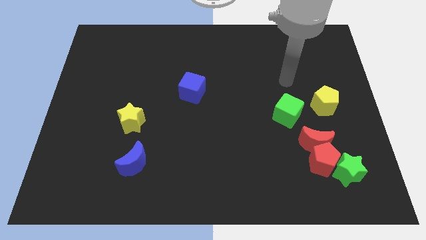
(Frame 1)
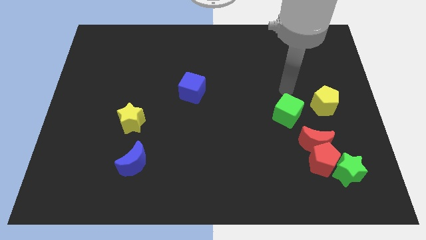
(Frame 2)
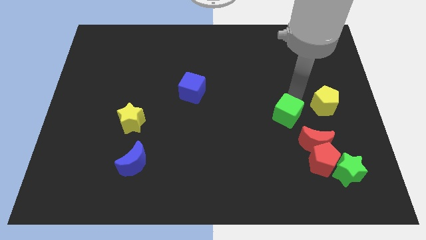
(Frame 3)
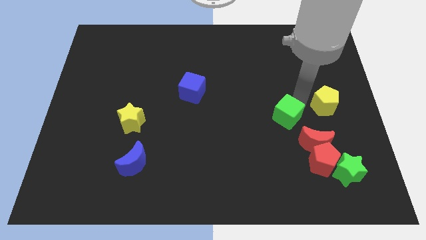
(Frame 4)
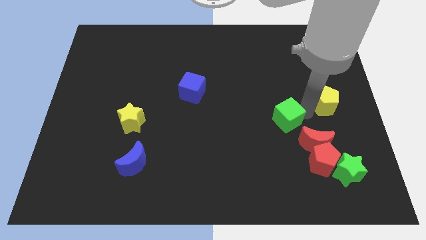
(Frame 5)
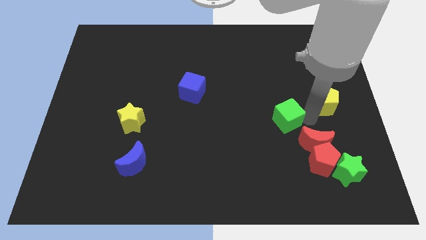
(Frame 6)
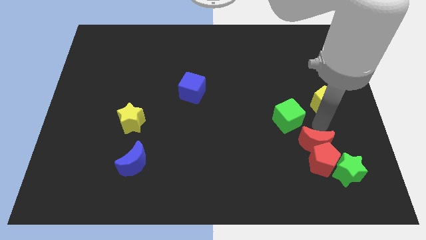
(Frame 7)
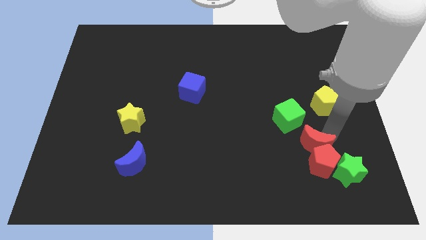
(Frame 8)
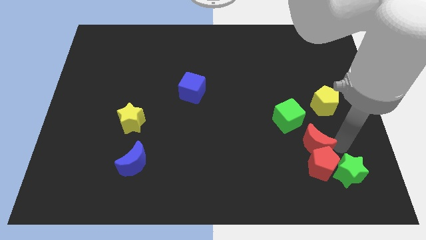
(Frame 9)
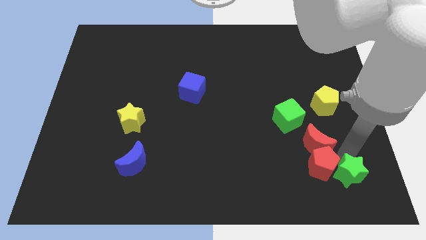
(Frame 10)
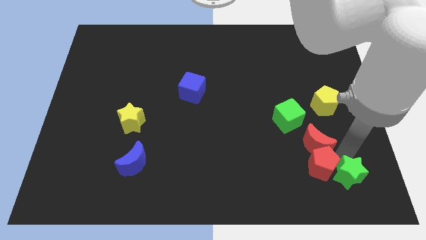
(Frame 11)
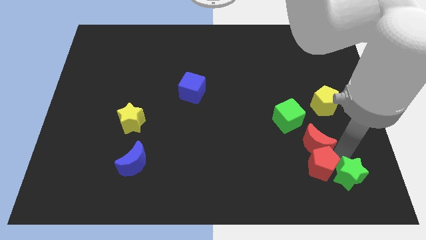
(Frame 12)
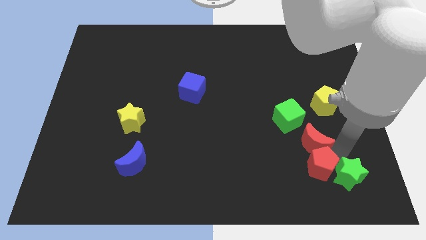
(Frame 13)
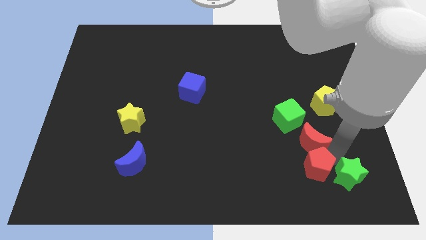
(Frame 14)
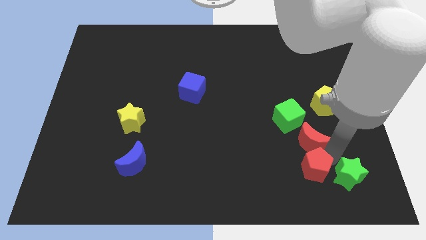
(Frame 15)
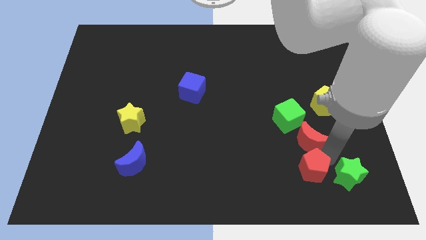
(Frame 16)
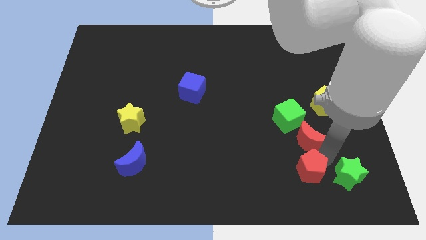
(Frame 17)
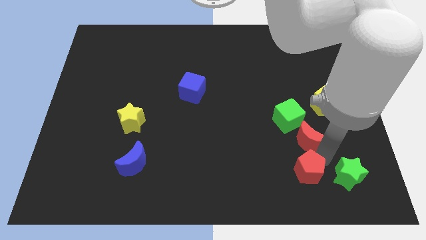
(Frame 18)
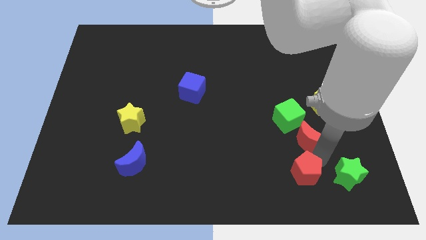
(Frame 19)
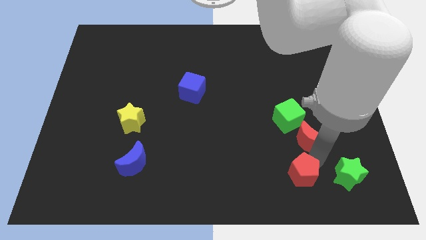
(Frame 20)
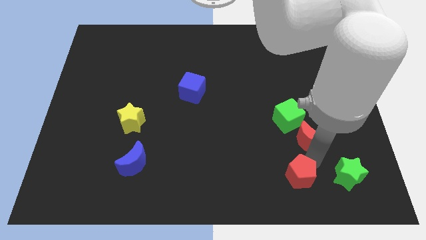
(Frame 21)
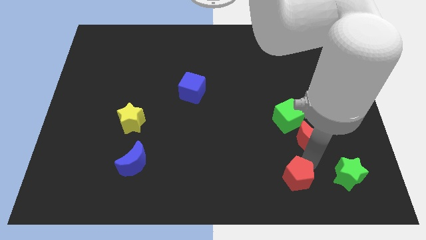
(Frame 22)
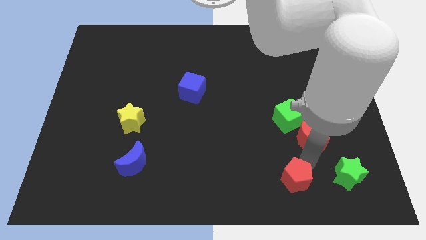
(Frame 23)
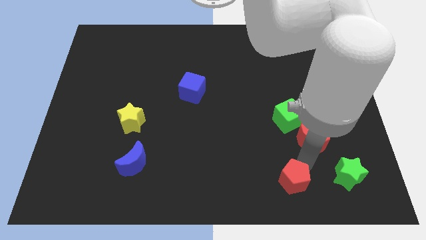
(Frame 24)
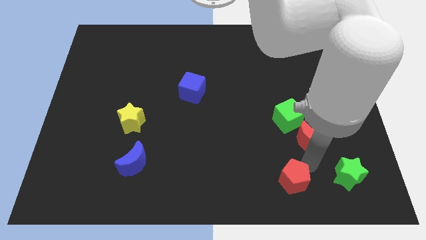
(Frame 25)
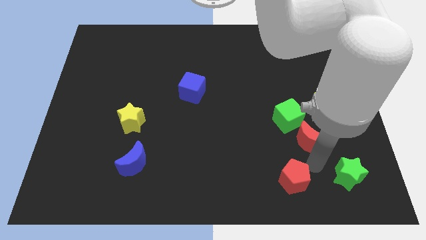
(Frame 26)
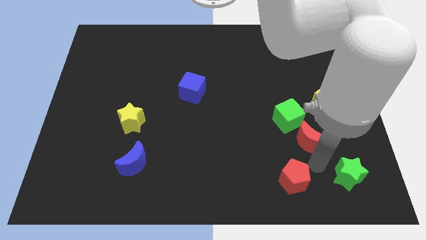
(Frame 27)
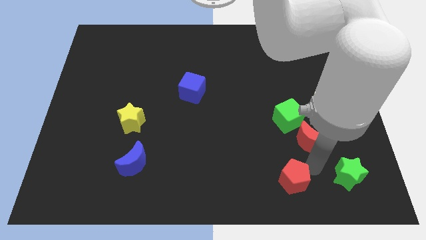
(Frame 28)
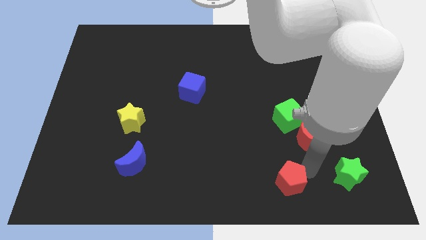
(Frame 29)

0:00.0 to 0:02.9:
move the red pentagon away from the red moon and green star

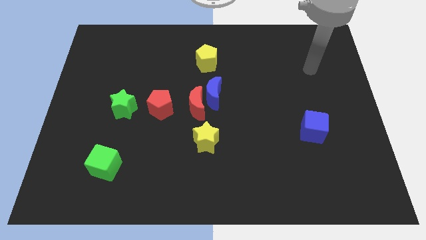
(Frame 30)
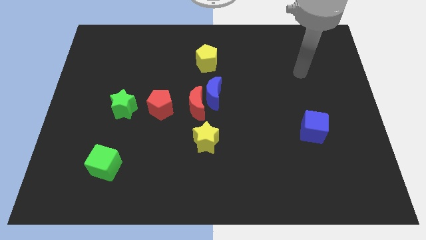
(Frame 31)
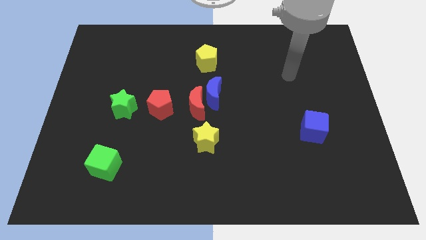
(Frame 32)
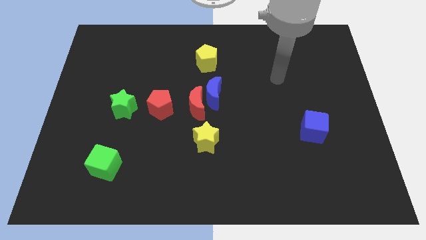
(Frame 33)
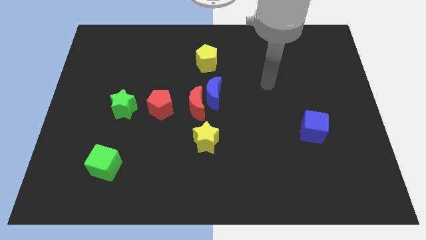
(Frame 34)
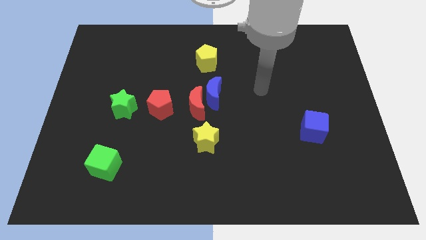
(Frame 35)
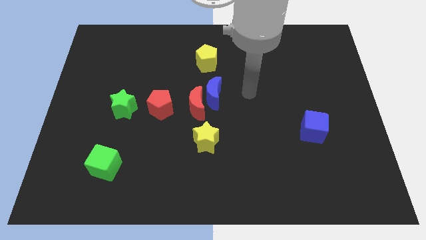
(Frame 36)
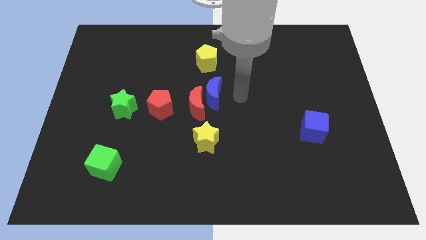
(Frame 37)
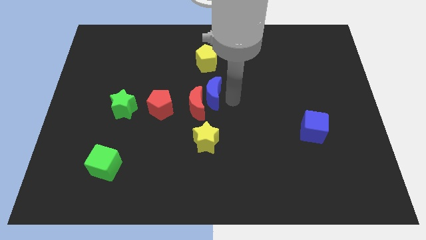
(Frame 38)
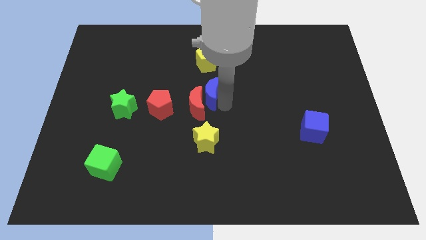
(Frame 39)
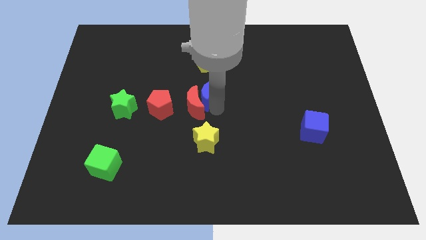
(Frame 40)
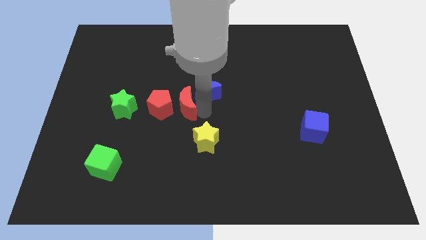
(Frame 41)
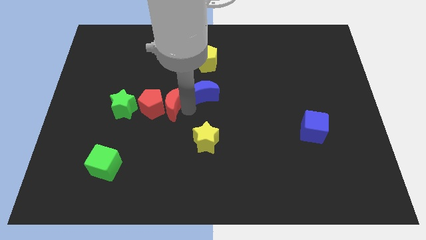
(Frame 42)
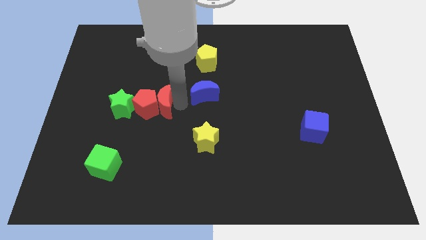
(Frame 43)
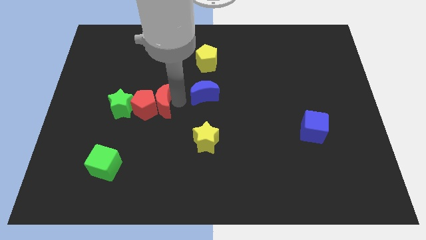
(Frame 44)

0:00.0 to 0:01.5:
separate the blue moon from the red moon

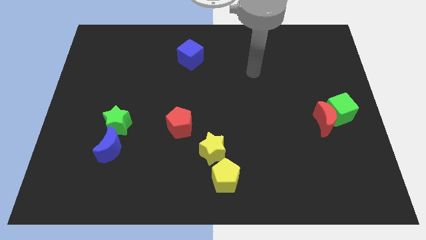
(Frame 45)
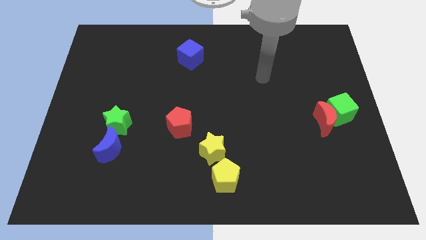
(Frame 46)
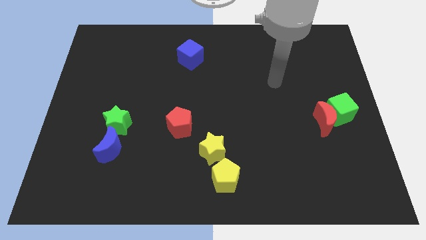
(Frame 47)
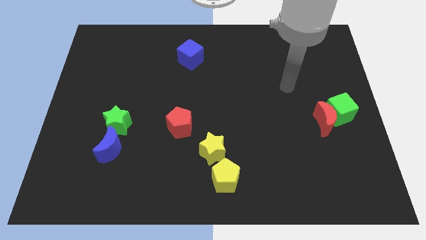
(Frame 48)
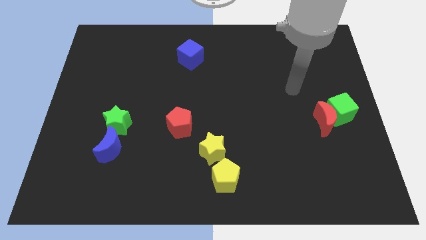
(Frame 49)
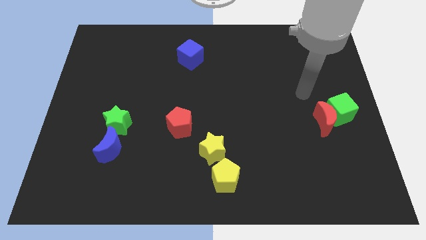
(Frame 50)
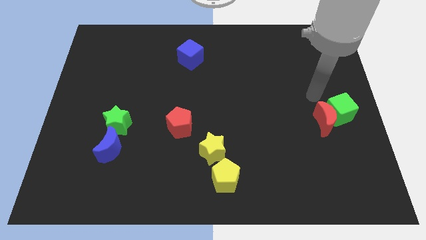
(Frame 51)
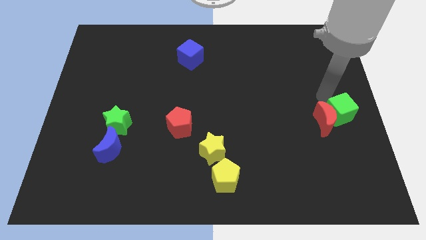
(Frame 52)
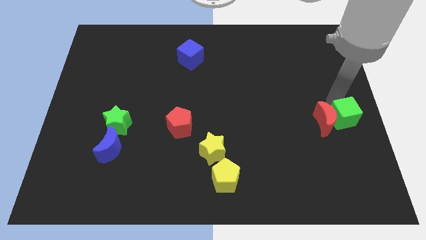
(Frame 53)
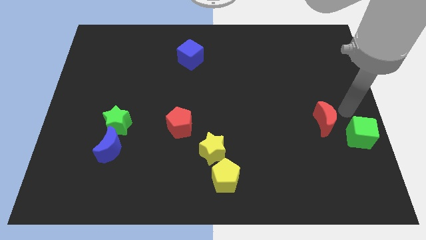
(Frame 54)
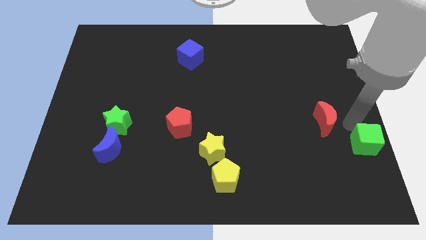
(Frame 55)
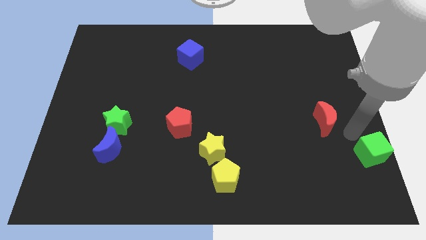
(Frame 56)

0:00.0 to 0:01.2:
pull the red moon apart from the green cube

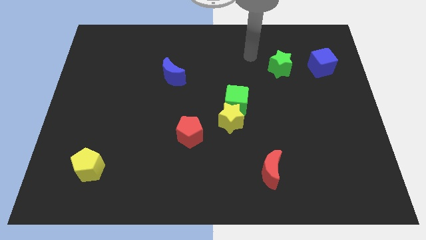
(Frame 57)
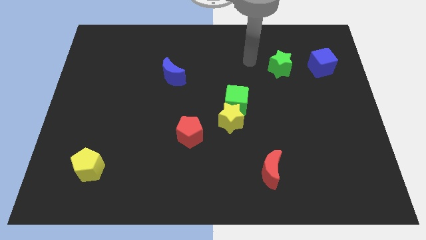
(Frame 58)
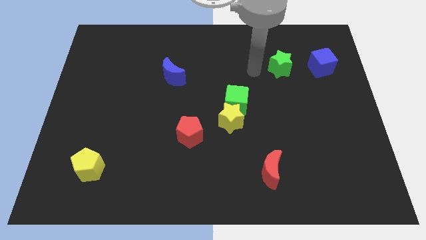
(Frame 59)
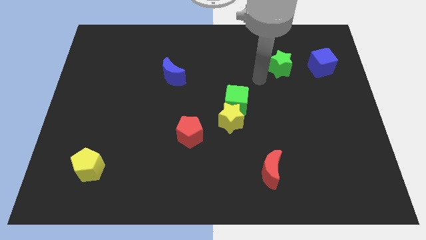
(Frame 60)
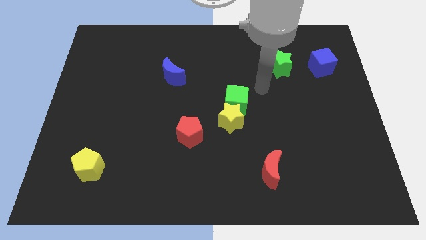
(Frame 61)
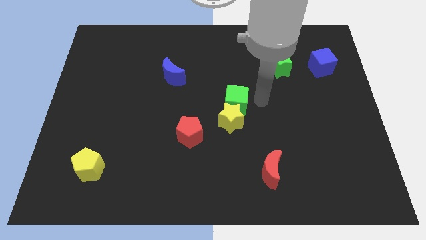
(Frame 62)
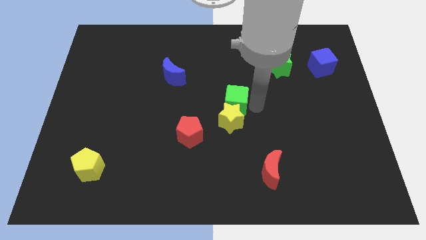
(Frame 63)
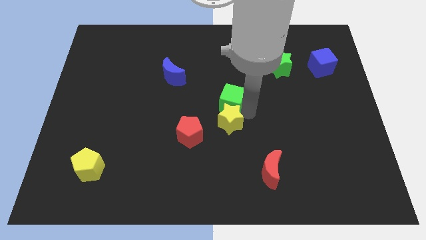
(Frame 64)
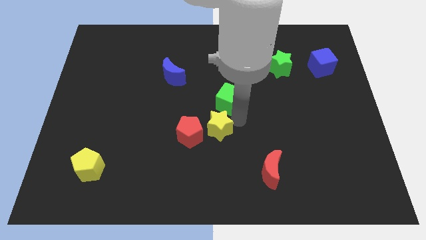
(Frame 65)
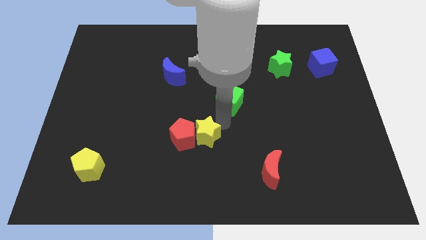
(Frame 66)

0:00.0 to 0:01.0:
pull the green cube apart from the yellow star

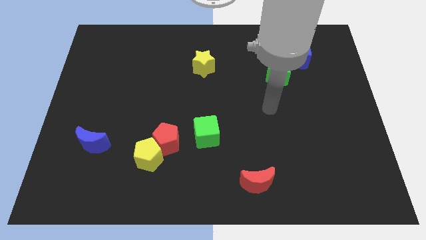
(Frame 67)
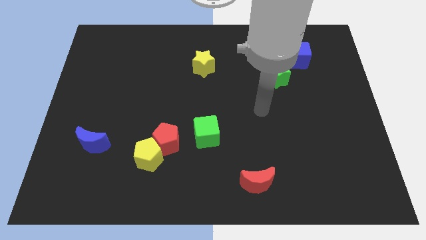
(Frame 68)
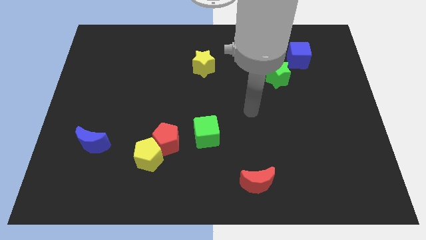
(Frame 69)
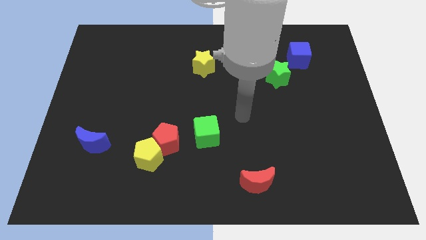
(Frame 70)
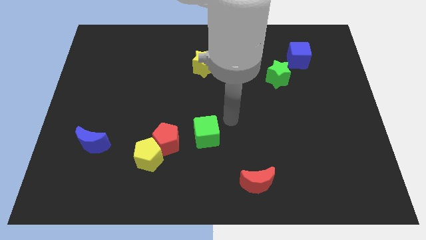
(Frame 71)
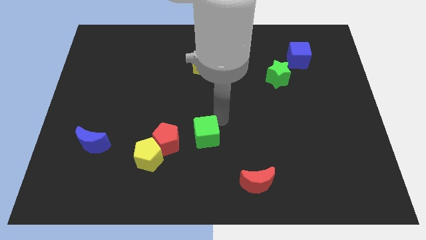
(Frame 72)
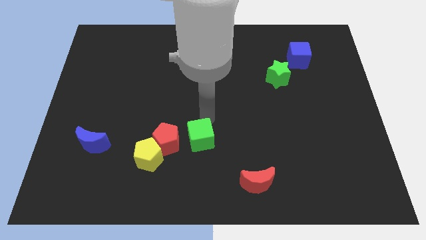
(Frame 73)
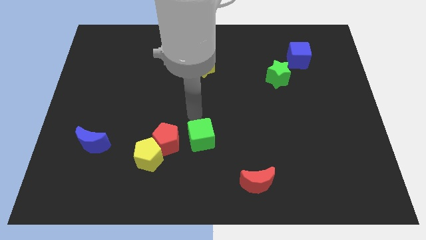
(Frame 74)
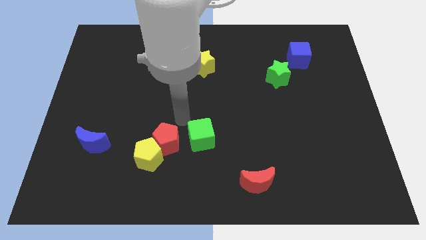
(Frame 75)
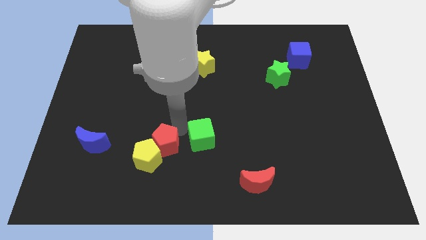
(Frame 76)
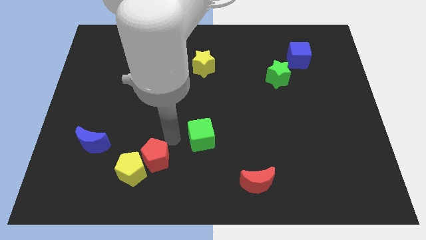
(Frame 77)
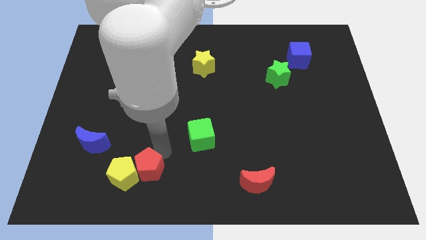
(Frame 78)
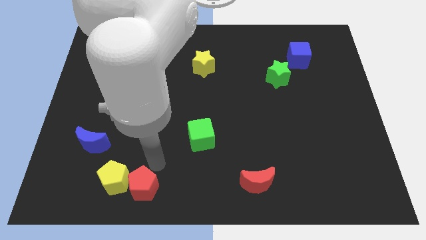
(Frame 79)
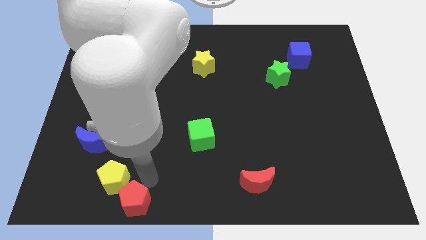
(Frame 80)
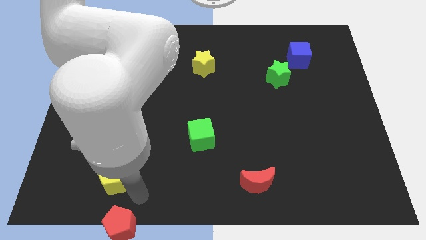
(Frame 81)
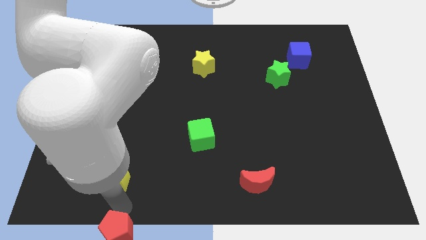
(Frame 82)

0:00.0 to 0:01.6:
pull the yellow pentagon apart from the red pentagon

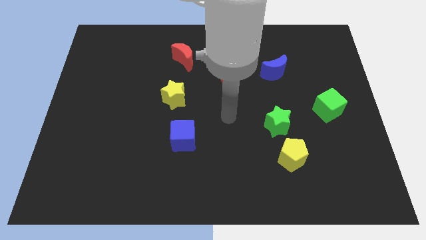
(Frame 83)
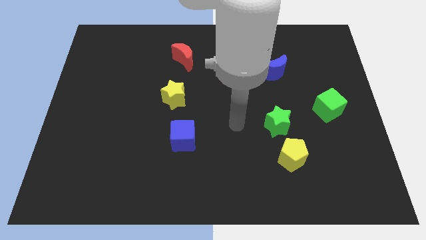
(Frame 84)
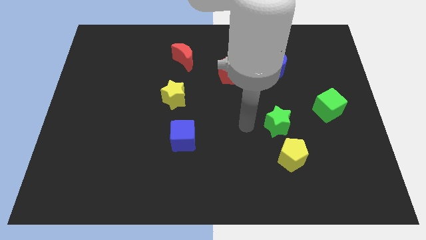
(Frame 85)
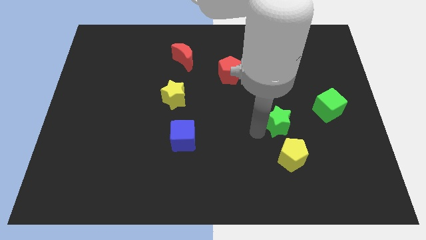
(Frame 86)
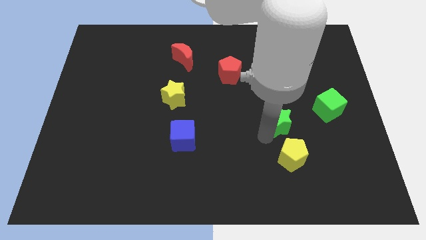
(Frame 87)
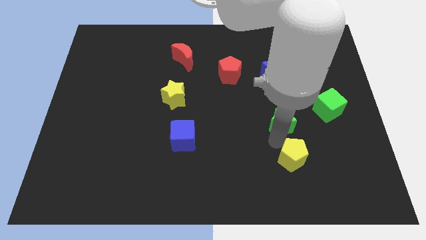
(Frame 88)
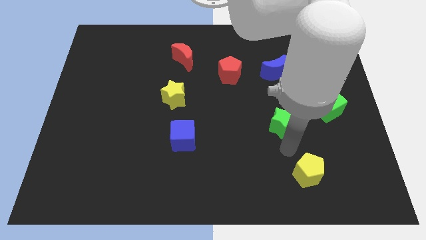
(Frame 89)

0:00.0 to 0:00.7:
move the green star away from the yellow pentagon

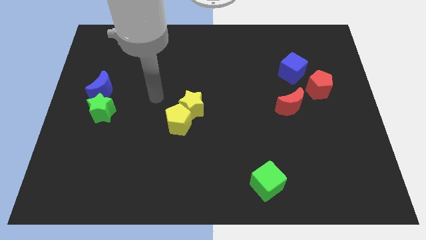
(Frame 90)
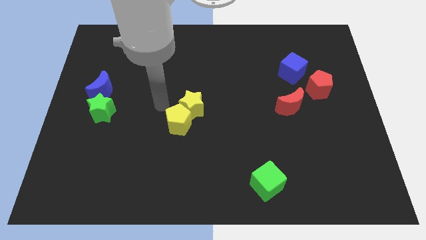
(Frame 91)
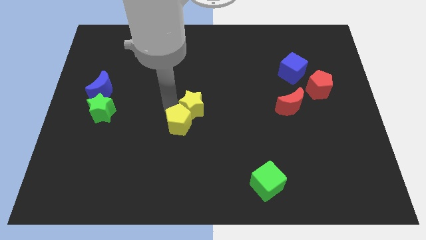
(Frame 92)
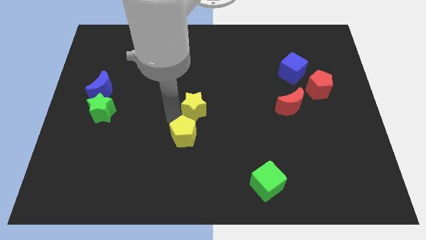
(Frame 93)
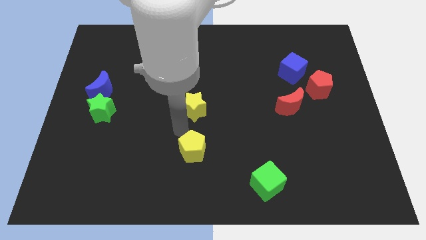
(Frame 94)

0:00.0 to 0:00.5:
separate the yellow star from the yellow pentagon
